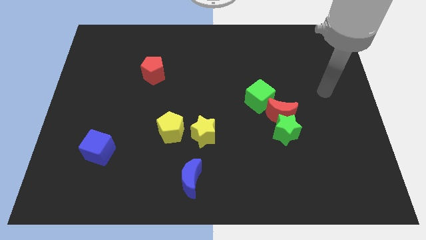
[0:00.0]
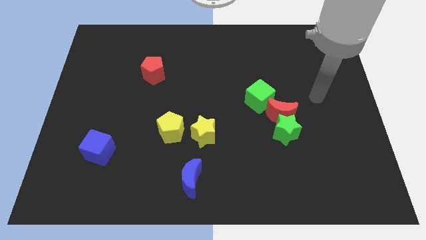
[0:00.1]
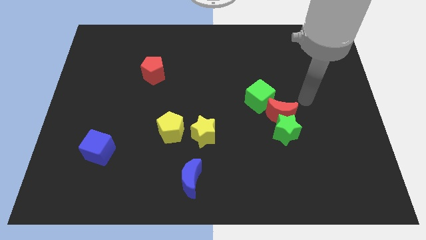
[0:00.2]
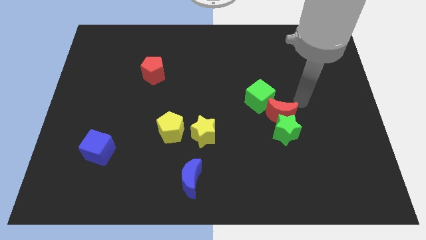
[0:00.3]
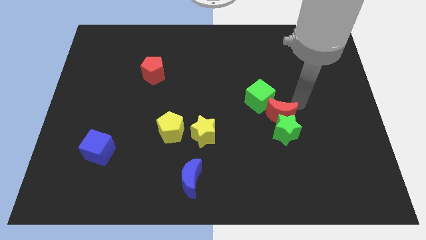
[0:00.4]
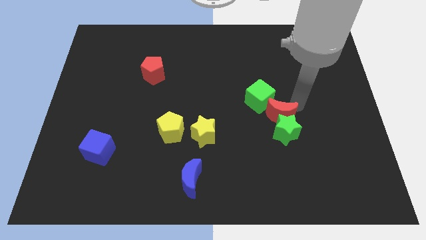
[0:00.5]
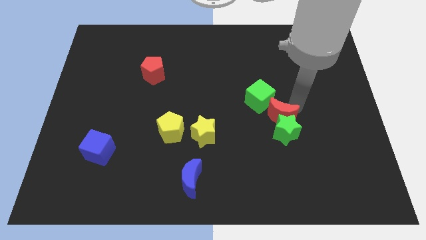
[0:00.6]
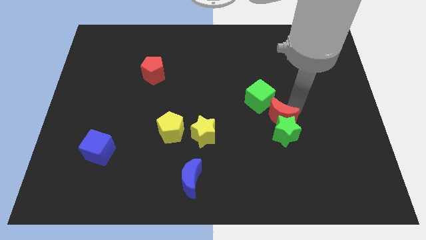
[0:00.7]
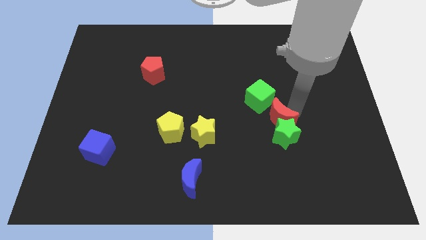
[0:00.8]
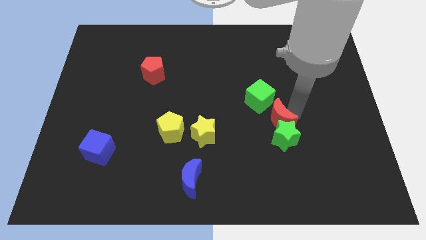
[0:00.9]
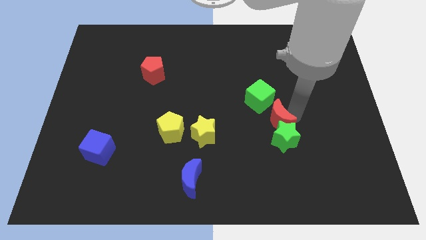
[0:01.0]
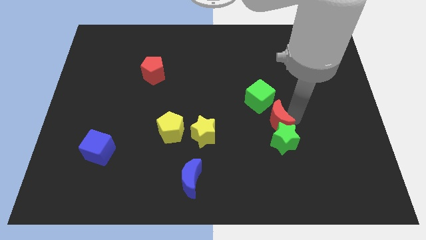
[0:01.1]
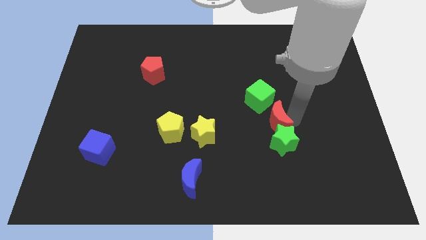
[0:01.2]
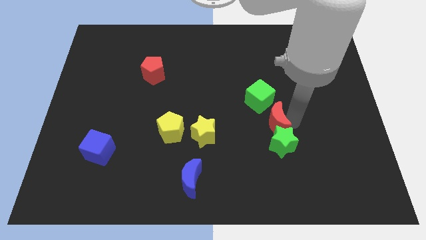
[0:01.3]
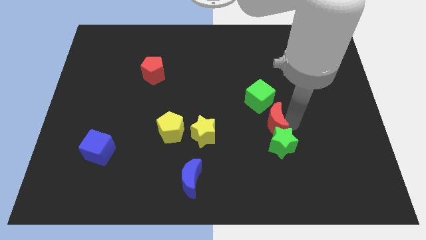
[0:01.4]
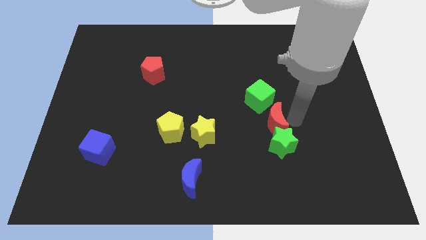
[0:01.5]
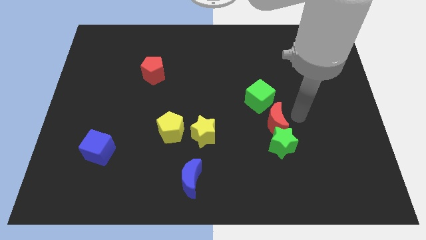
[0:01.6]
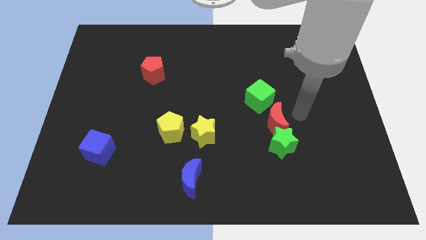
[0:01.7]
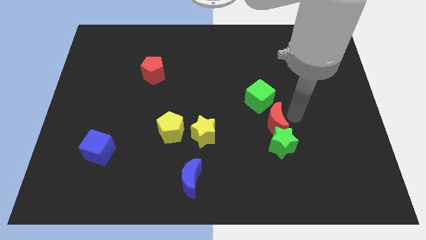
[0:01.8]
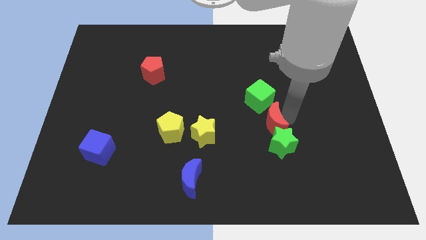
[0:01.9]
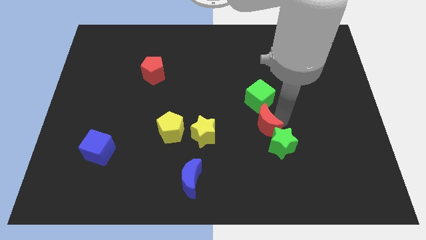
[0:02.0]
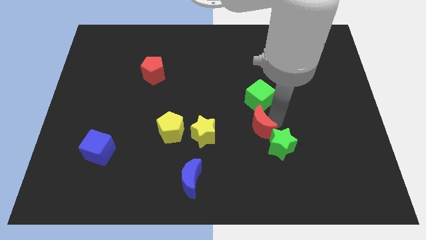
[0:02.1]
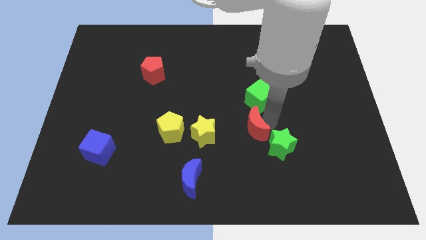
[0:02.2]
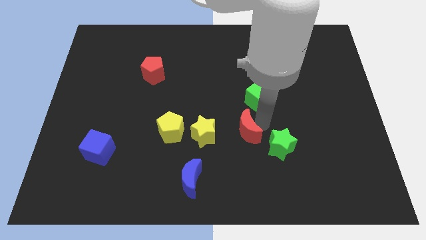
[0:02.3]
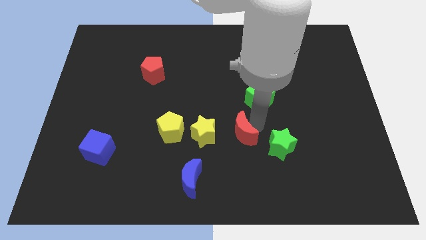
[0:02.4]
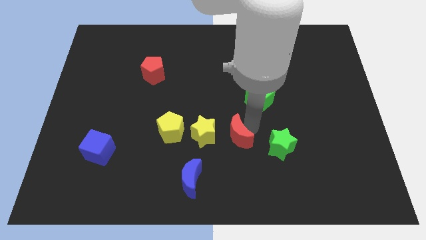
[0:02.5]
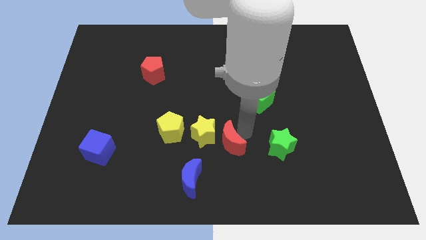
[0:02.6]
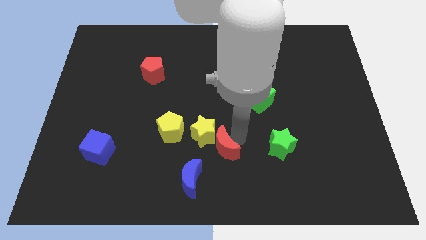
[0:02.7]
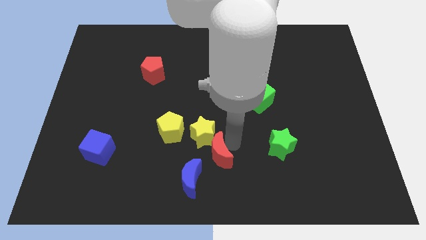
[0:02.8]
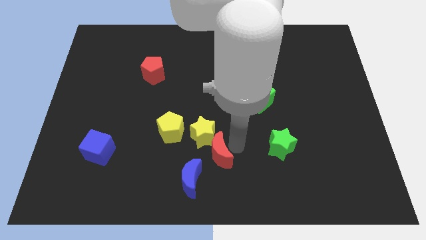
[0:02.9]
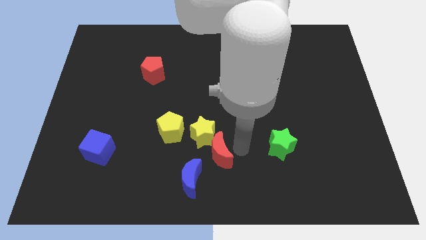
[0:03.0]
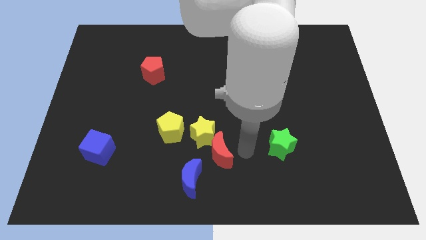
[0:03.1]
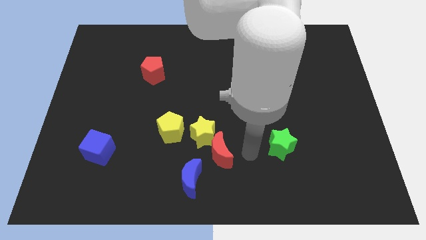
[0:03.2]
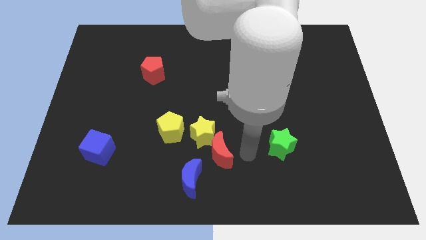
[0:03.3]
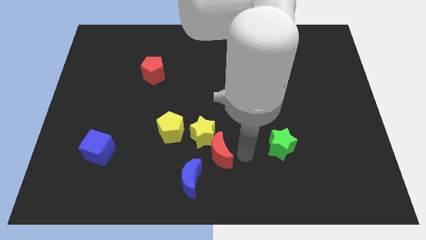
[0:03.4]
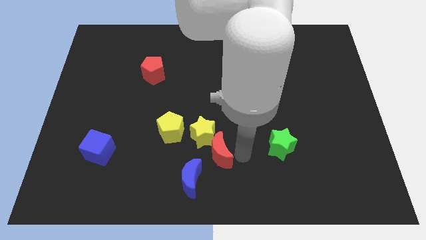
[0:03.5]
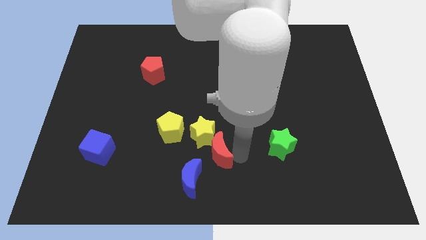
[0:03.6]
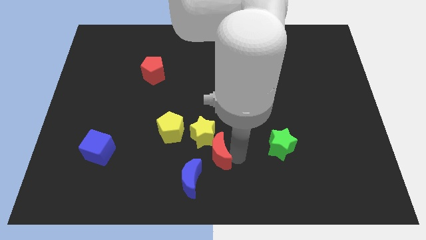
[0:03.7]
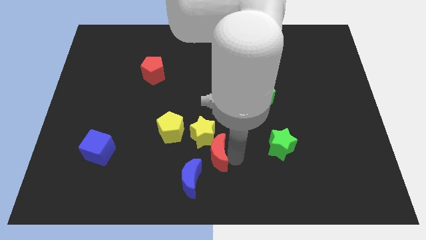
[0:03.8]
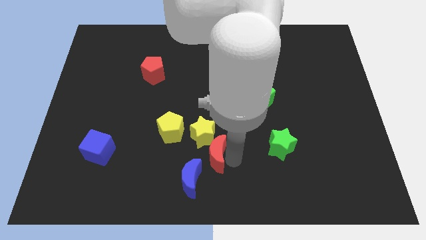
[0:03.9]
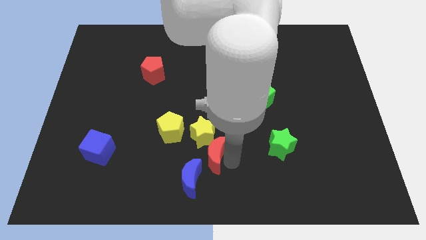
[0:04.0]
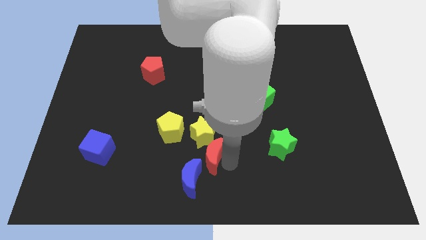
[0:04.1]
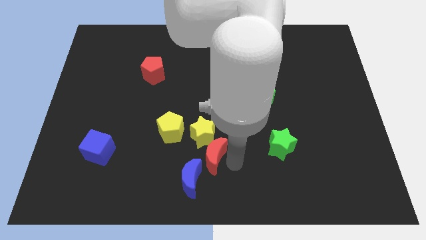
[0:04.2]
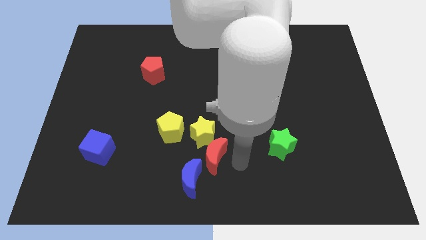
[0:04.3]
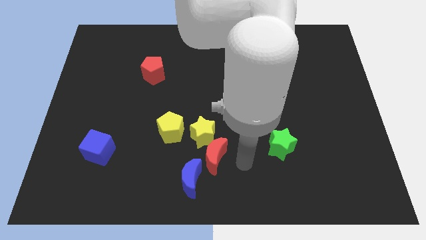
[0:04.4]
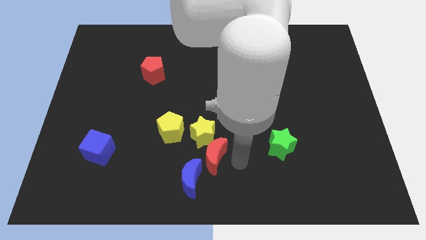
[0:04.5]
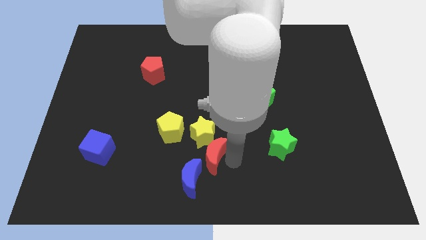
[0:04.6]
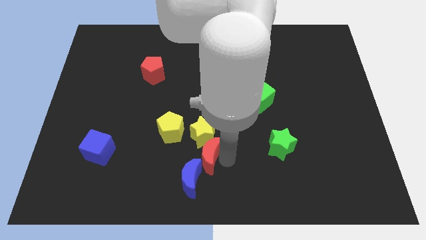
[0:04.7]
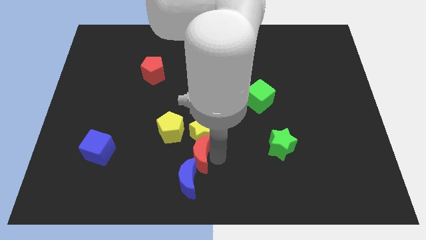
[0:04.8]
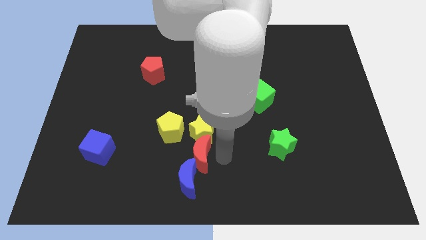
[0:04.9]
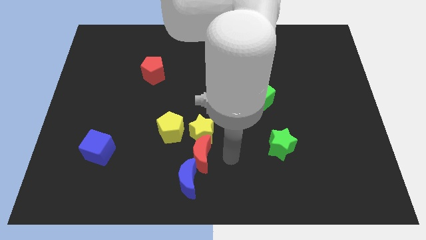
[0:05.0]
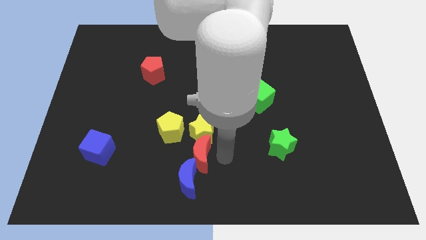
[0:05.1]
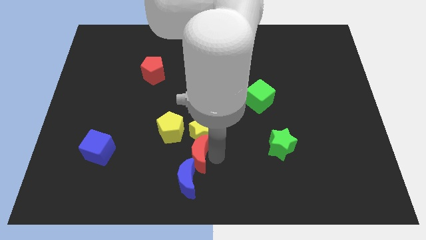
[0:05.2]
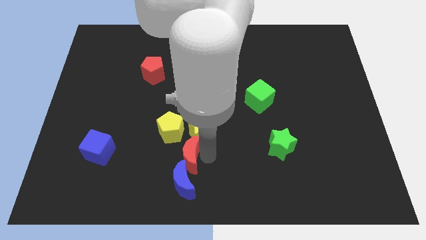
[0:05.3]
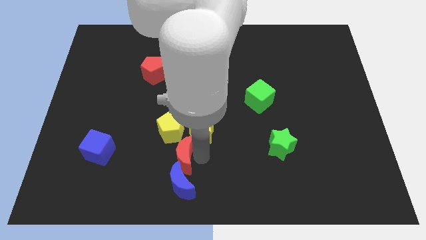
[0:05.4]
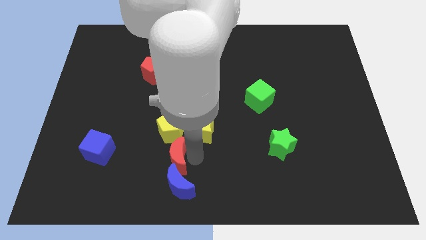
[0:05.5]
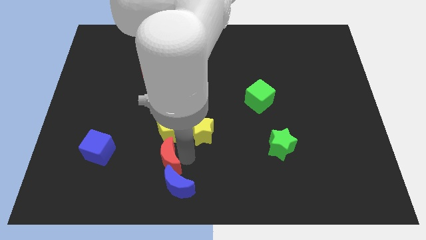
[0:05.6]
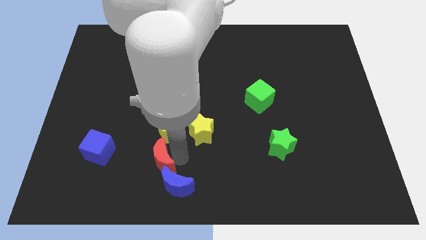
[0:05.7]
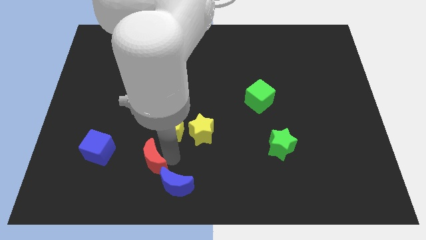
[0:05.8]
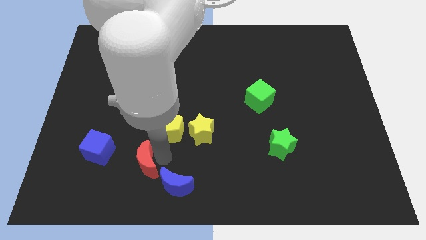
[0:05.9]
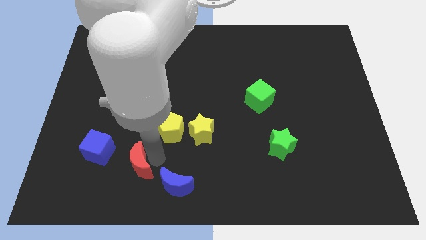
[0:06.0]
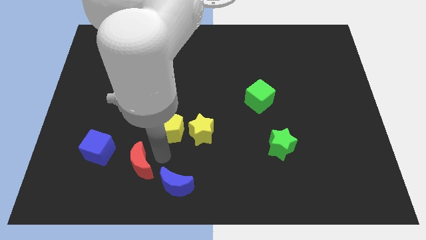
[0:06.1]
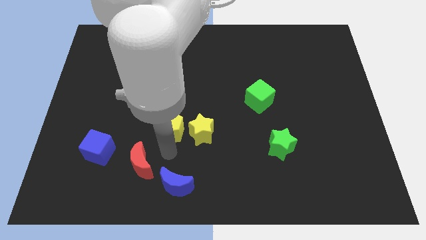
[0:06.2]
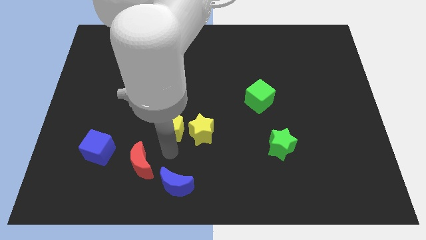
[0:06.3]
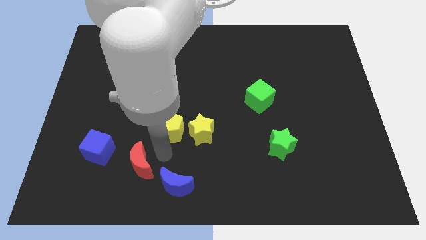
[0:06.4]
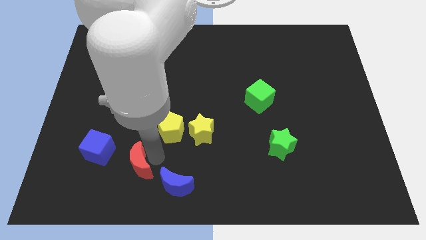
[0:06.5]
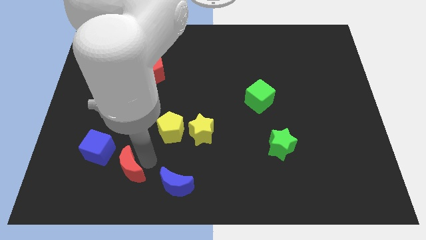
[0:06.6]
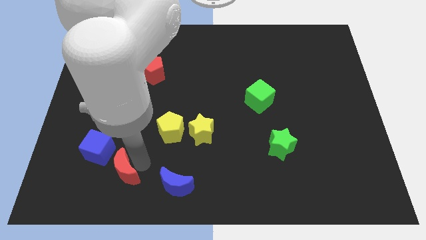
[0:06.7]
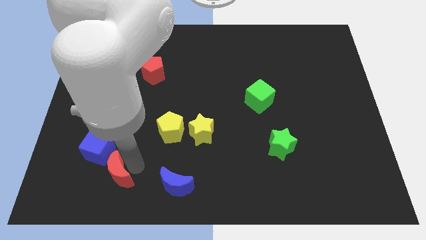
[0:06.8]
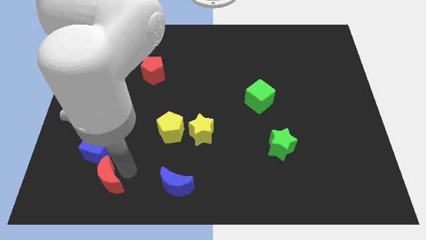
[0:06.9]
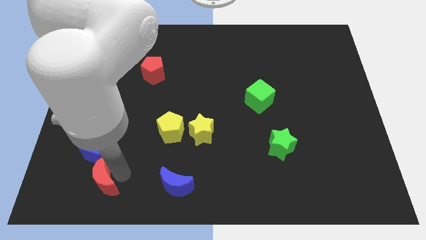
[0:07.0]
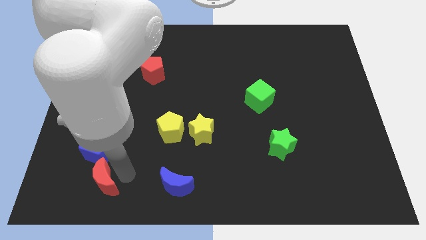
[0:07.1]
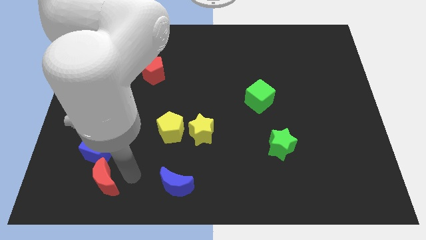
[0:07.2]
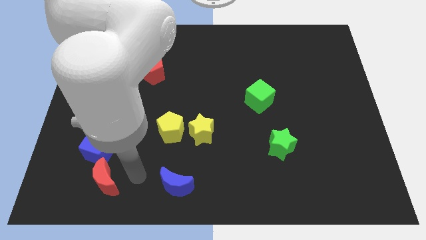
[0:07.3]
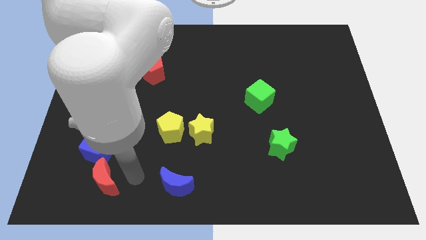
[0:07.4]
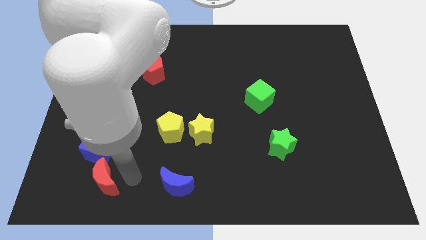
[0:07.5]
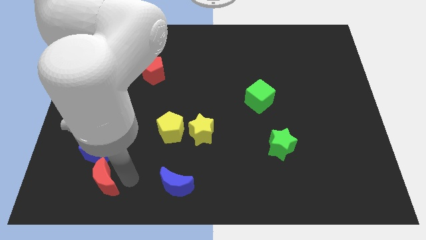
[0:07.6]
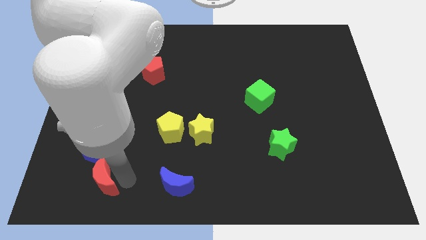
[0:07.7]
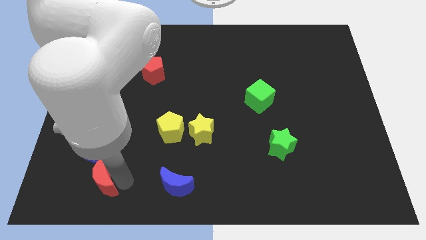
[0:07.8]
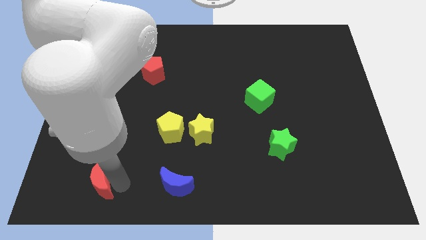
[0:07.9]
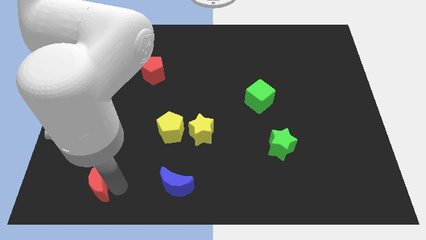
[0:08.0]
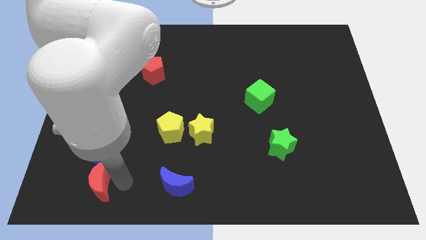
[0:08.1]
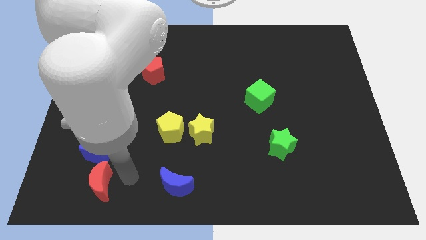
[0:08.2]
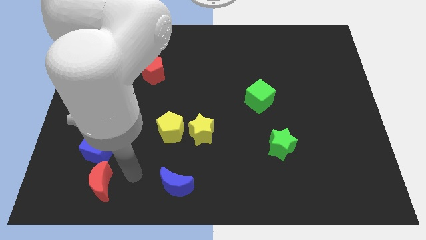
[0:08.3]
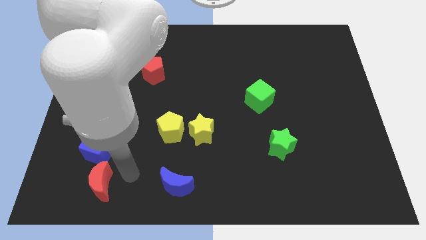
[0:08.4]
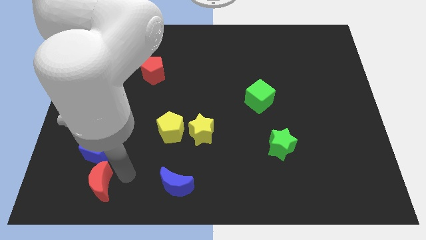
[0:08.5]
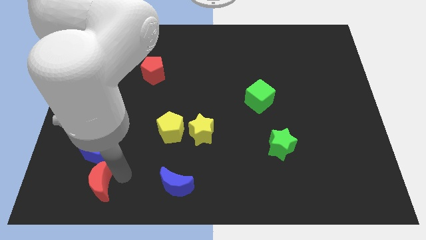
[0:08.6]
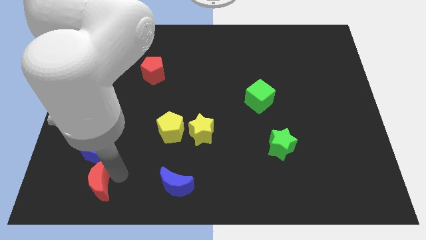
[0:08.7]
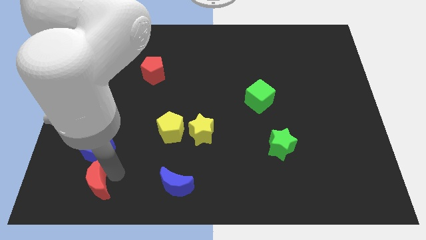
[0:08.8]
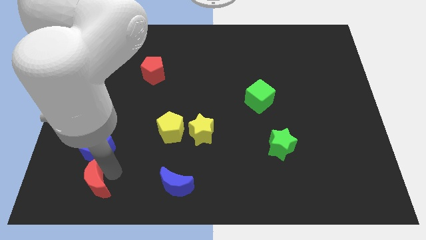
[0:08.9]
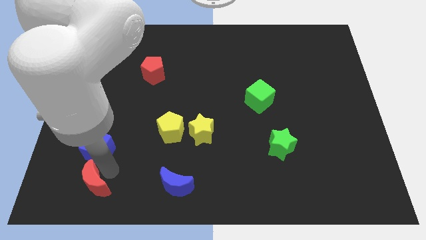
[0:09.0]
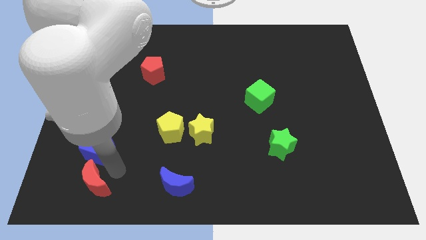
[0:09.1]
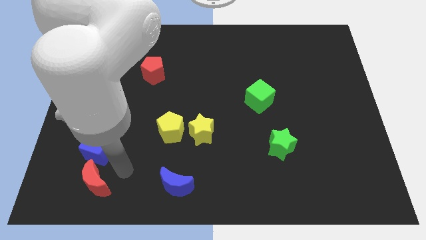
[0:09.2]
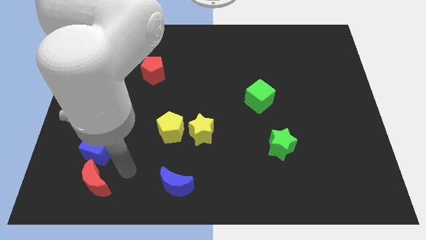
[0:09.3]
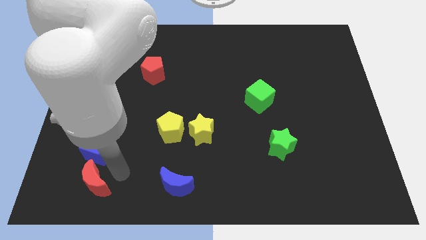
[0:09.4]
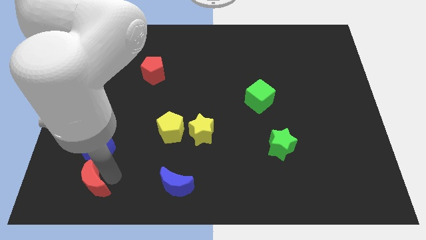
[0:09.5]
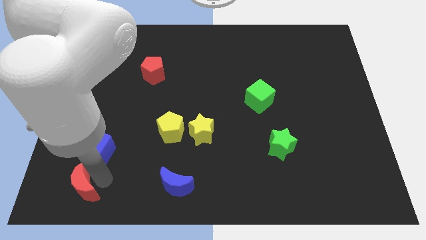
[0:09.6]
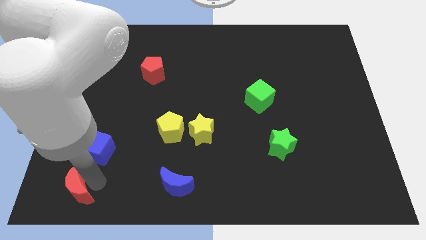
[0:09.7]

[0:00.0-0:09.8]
put the red moon to the bottom left
